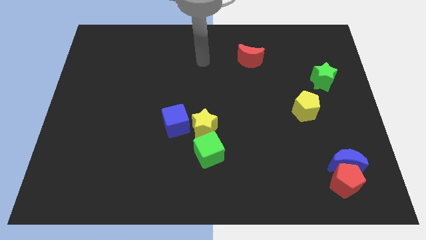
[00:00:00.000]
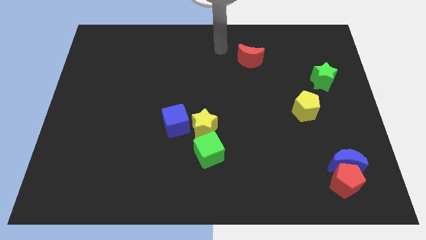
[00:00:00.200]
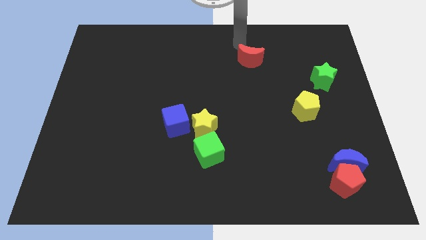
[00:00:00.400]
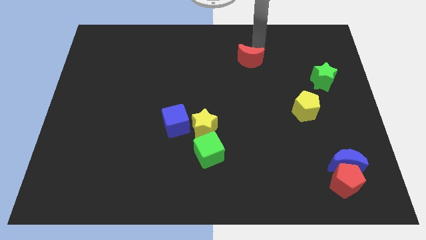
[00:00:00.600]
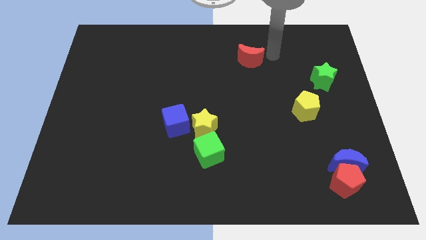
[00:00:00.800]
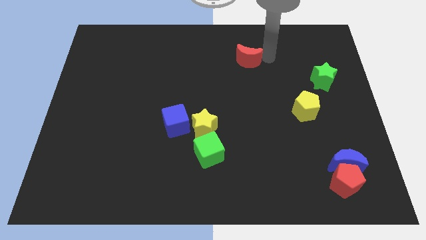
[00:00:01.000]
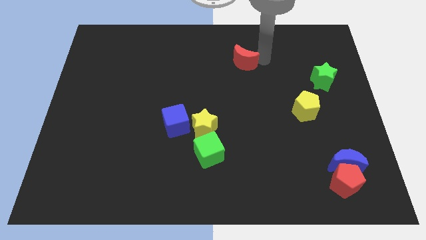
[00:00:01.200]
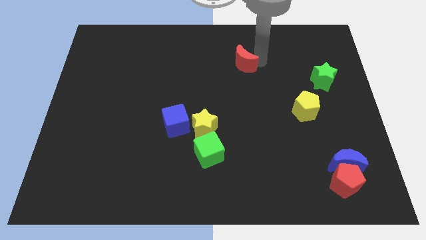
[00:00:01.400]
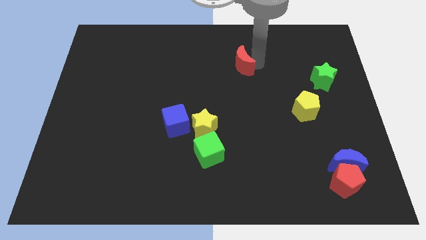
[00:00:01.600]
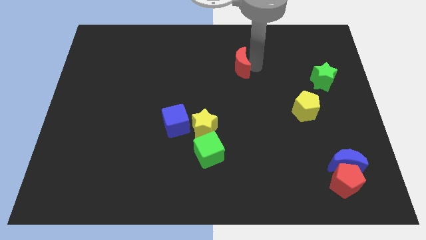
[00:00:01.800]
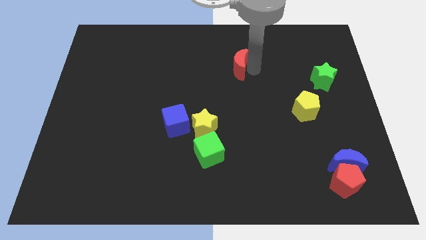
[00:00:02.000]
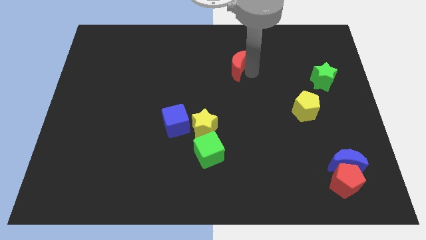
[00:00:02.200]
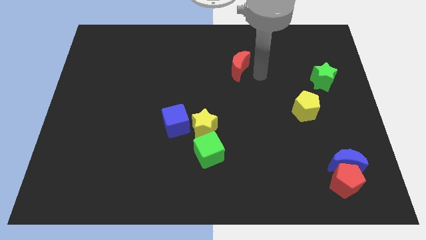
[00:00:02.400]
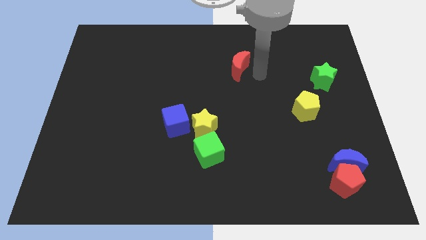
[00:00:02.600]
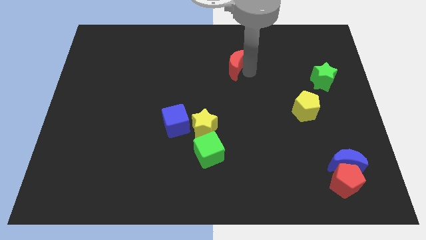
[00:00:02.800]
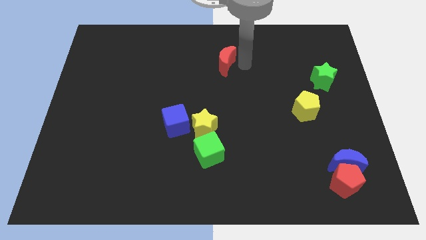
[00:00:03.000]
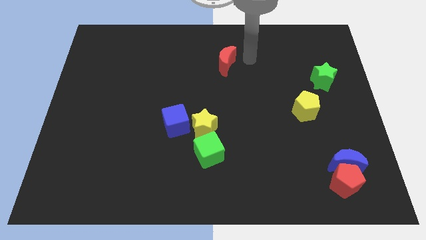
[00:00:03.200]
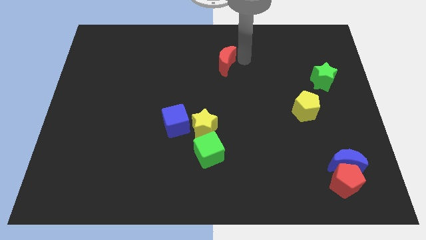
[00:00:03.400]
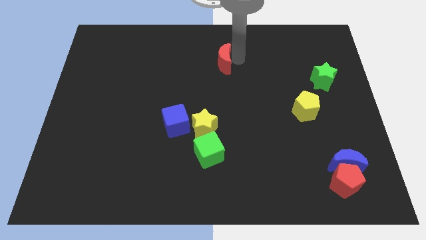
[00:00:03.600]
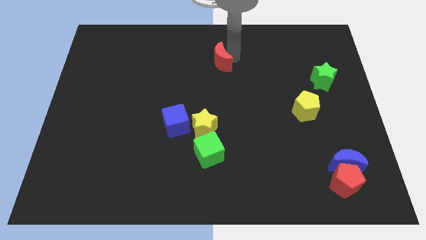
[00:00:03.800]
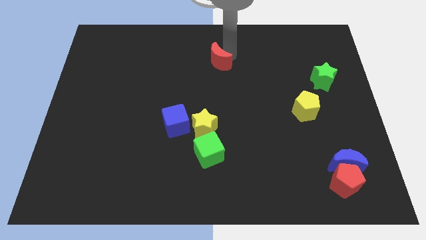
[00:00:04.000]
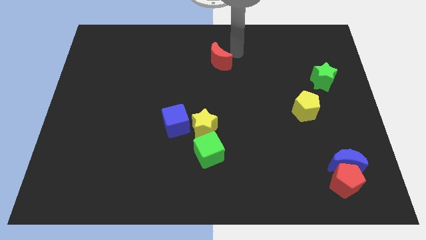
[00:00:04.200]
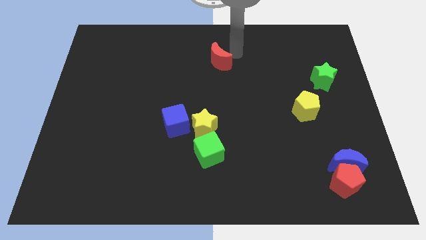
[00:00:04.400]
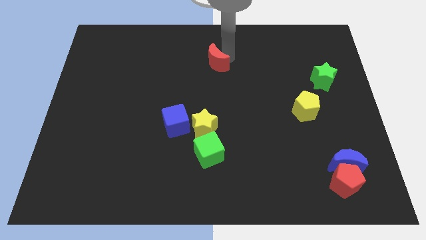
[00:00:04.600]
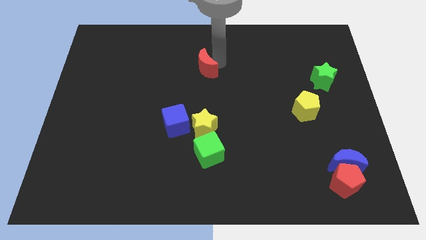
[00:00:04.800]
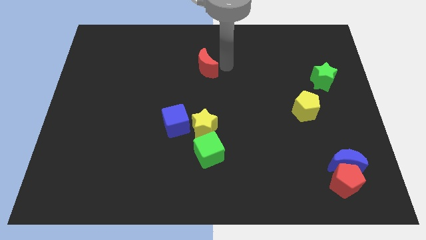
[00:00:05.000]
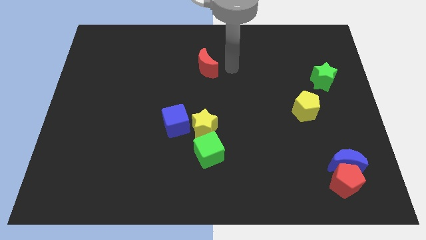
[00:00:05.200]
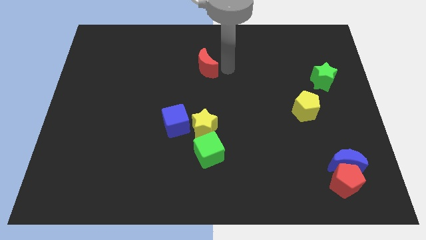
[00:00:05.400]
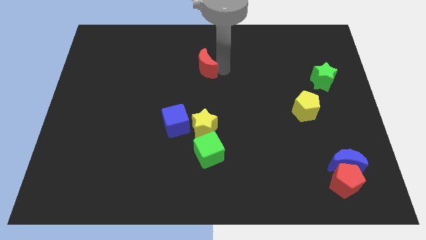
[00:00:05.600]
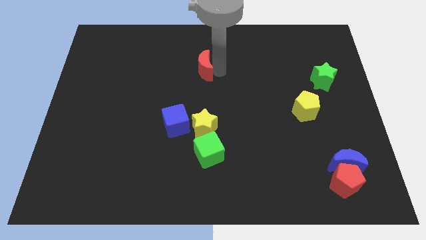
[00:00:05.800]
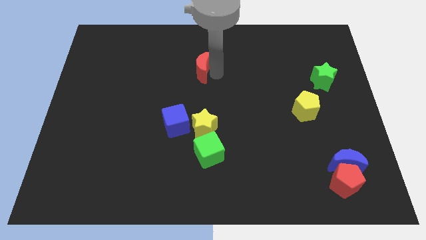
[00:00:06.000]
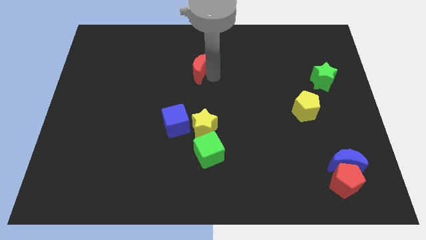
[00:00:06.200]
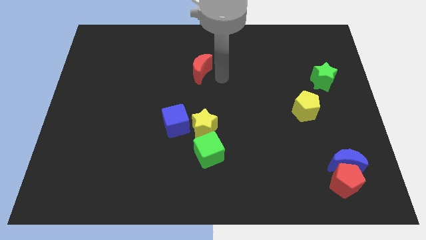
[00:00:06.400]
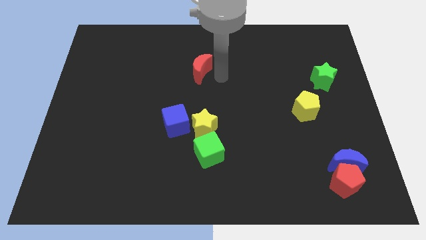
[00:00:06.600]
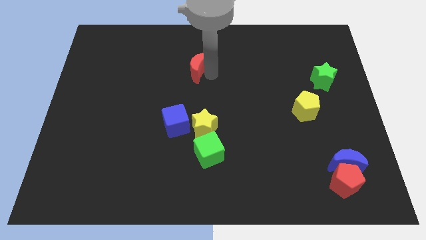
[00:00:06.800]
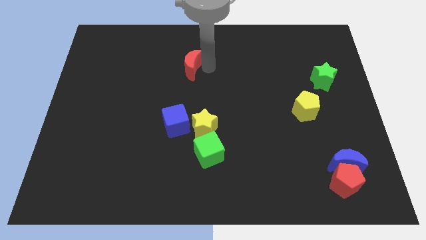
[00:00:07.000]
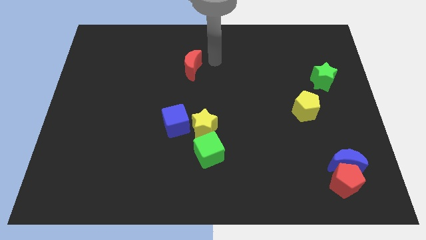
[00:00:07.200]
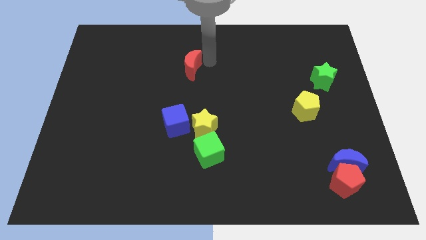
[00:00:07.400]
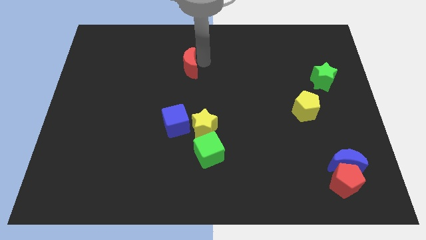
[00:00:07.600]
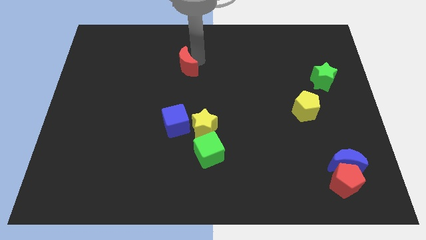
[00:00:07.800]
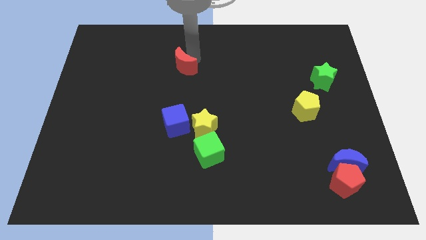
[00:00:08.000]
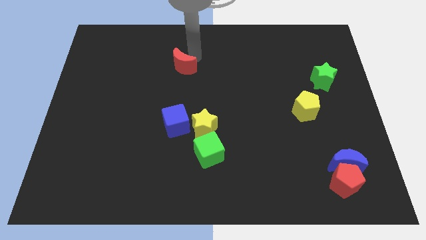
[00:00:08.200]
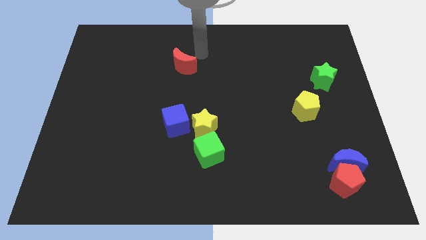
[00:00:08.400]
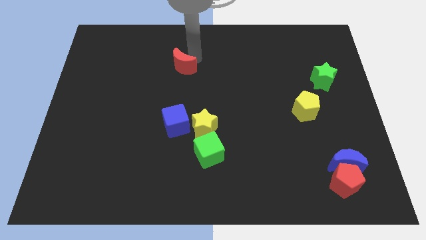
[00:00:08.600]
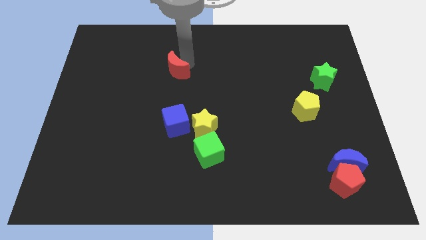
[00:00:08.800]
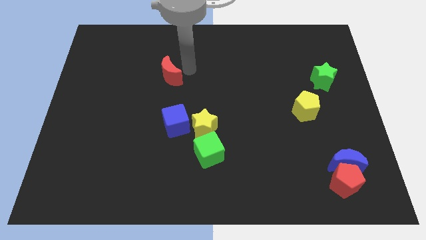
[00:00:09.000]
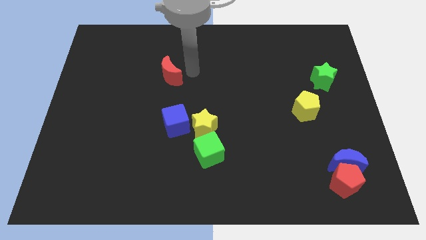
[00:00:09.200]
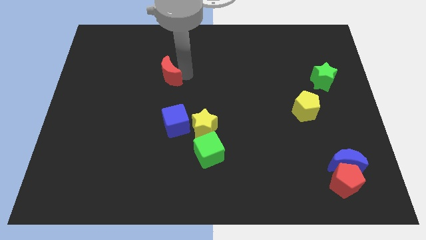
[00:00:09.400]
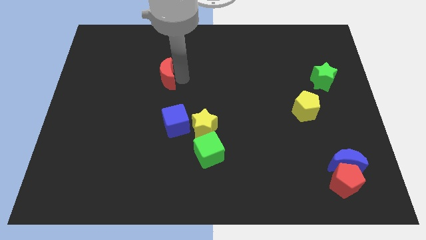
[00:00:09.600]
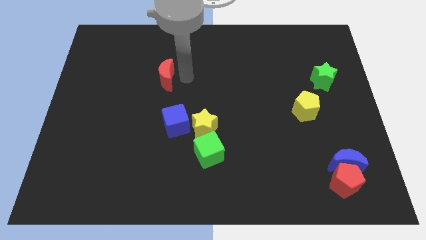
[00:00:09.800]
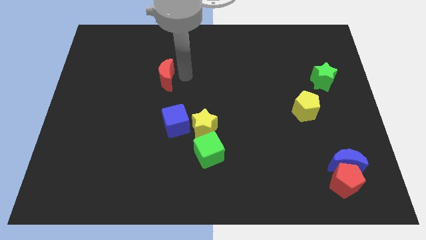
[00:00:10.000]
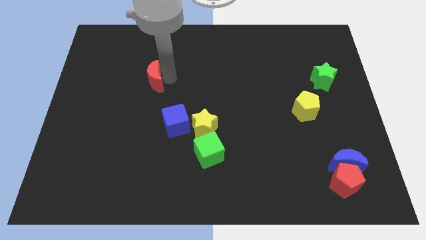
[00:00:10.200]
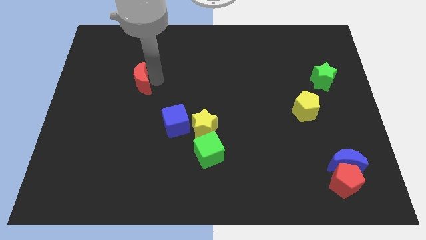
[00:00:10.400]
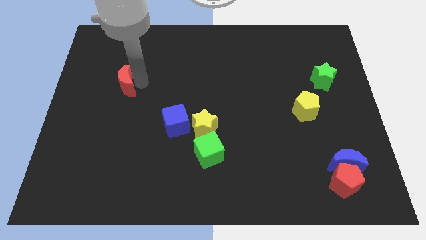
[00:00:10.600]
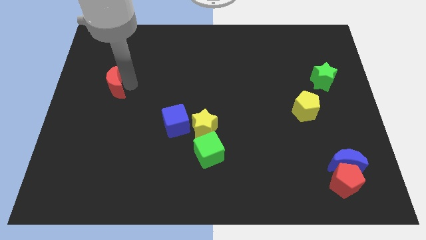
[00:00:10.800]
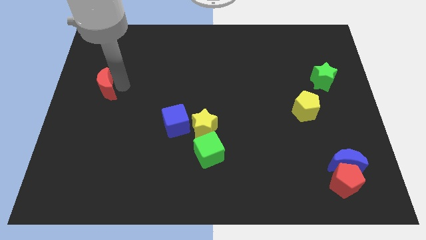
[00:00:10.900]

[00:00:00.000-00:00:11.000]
push the red moon to the center left

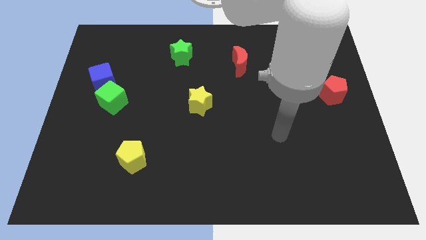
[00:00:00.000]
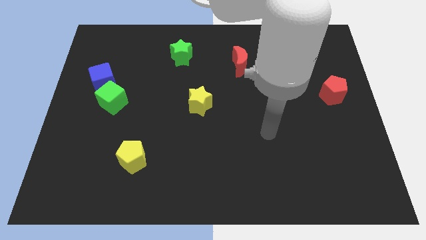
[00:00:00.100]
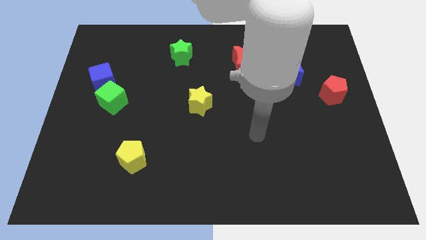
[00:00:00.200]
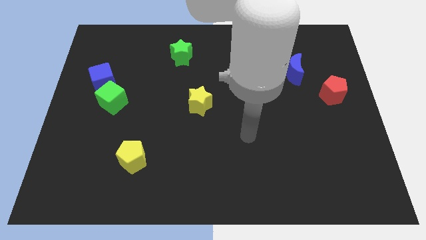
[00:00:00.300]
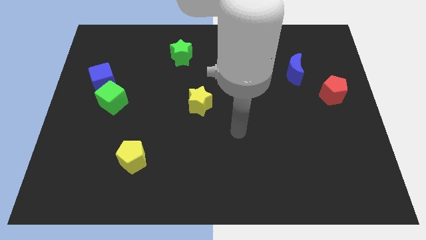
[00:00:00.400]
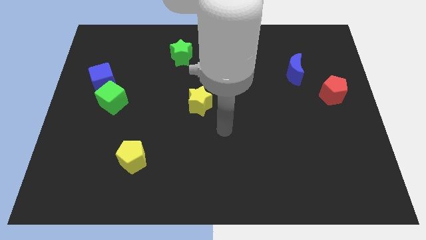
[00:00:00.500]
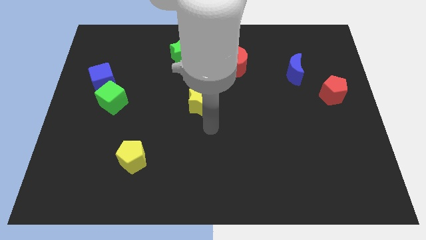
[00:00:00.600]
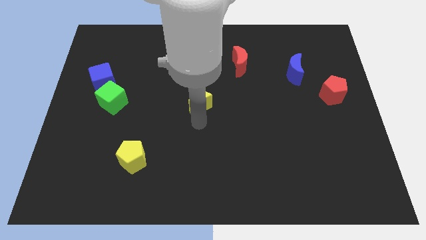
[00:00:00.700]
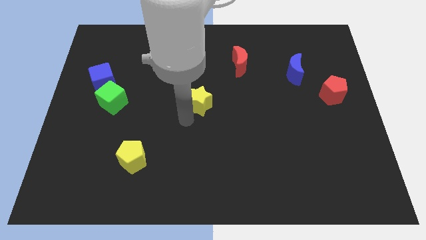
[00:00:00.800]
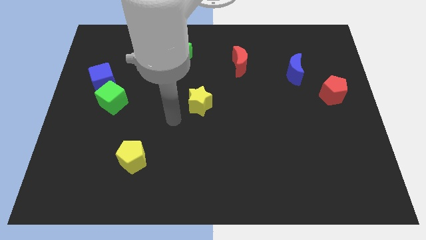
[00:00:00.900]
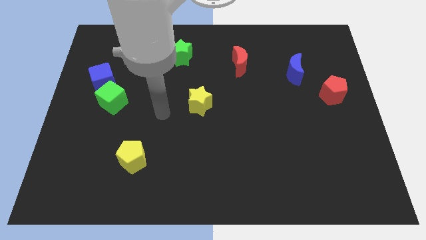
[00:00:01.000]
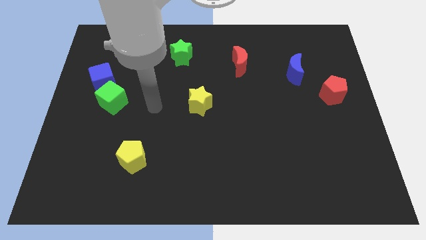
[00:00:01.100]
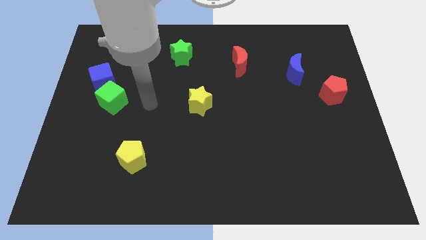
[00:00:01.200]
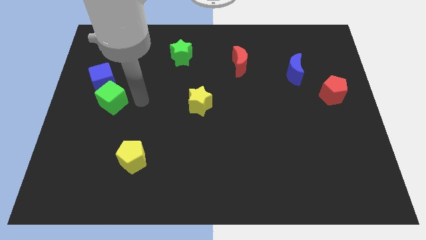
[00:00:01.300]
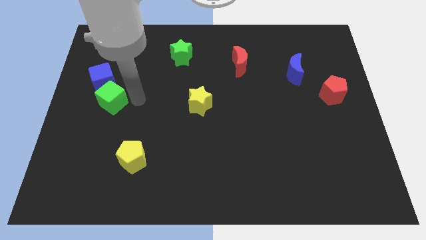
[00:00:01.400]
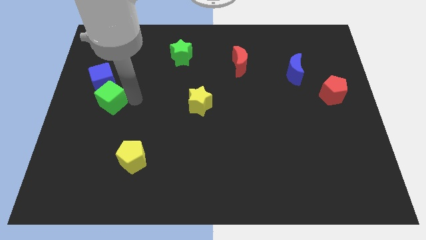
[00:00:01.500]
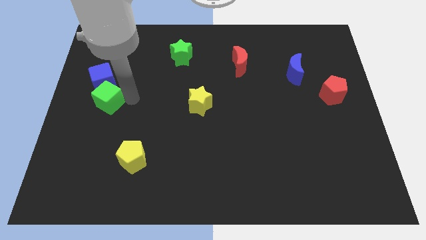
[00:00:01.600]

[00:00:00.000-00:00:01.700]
push the green cube to the center left
